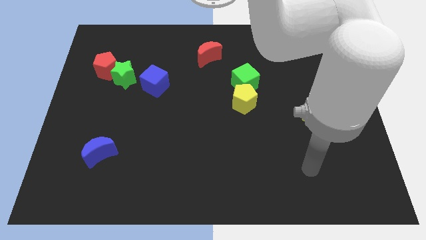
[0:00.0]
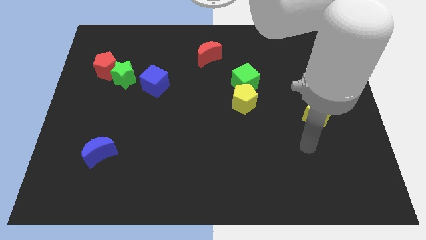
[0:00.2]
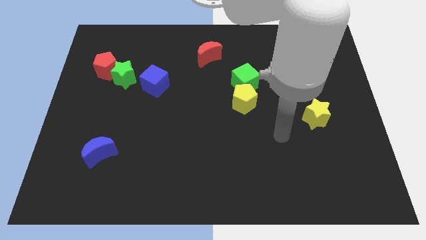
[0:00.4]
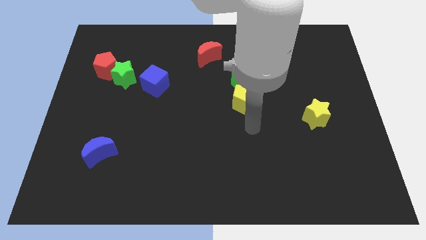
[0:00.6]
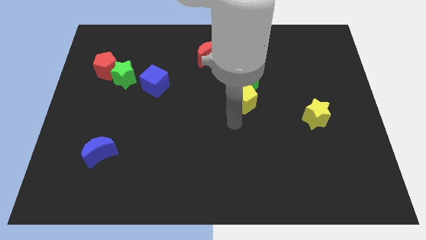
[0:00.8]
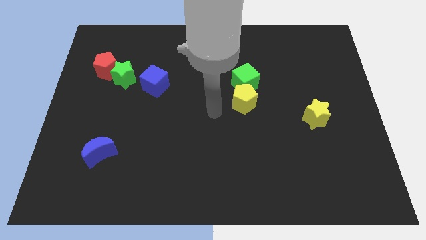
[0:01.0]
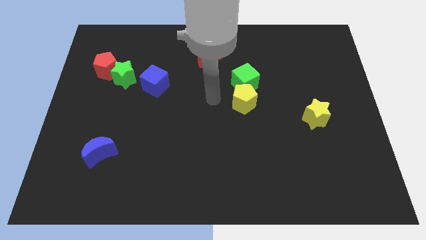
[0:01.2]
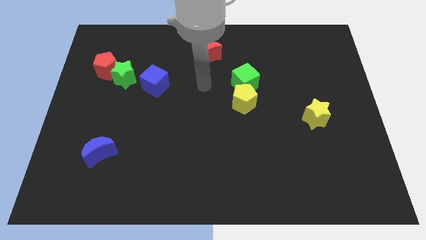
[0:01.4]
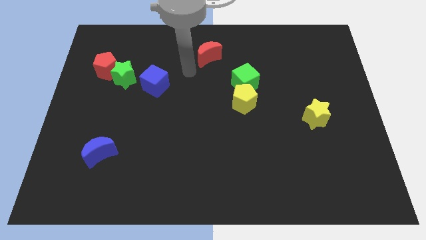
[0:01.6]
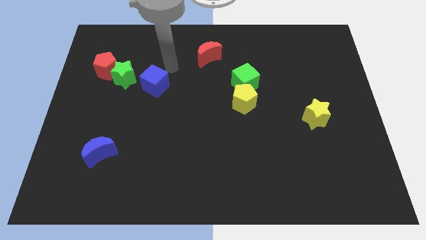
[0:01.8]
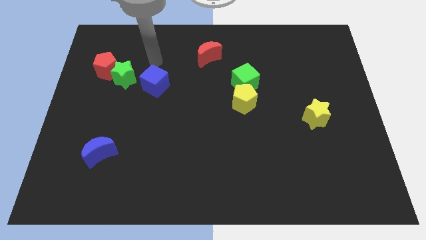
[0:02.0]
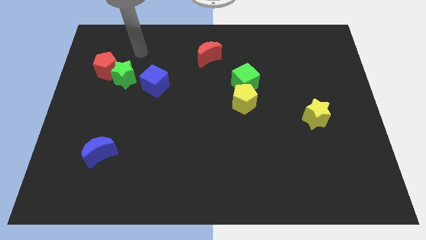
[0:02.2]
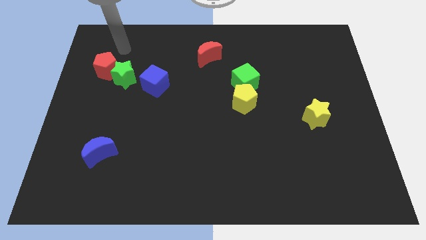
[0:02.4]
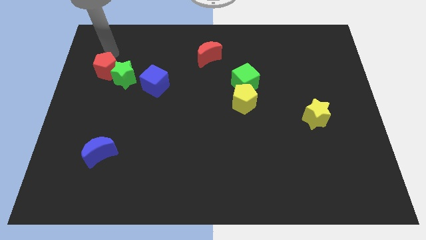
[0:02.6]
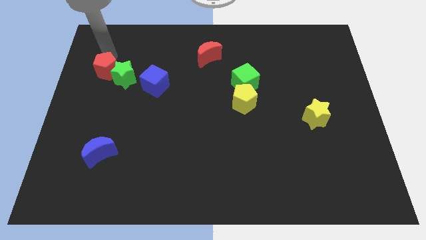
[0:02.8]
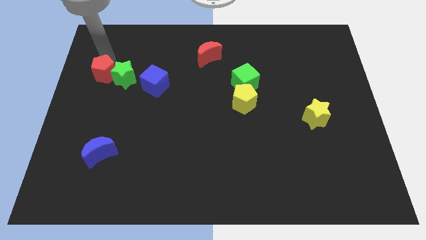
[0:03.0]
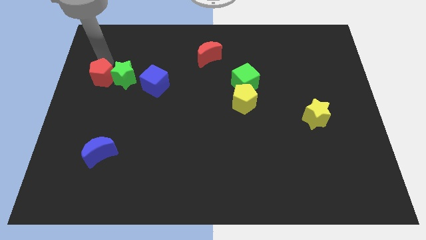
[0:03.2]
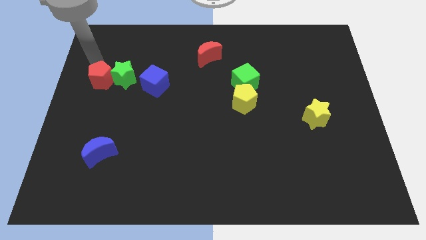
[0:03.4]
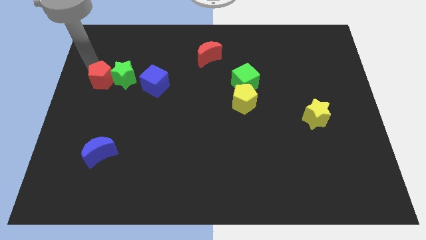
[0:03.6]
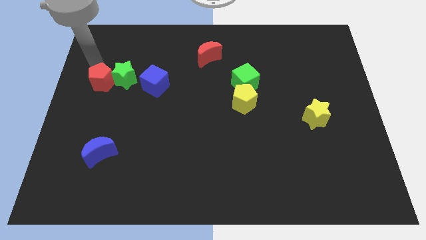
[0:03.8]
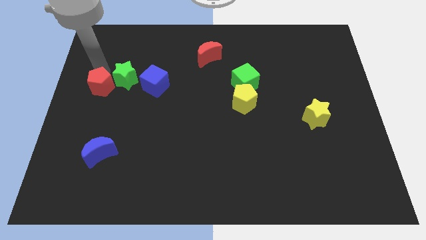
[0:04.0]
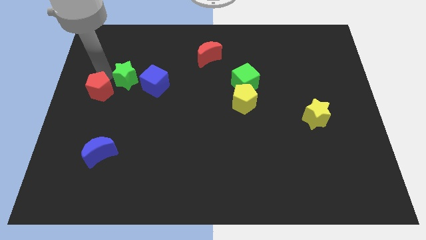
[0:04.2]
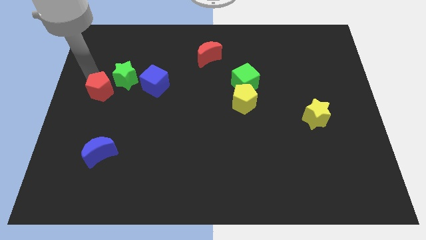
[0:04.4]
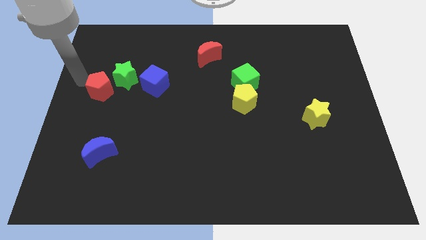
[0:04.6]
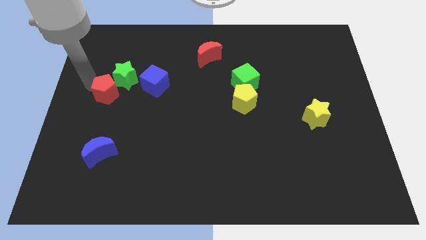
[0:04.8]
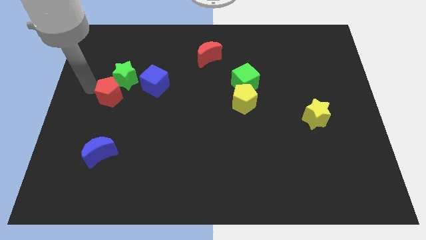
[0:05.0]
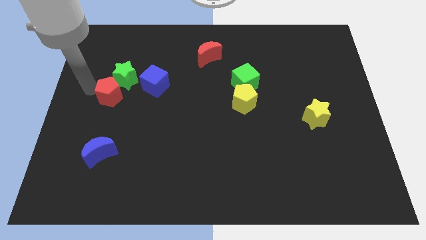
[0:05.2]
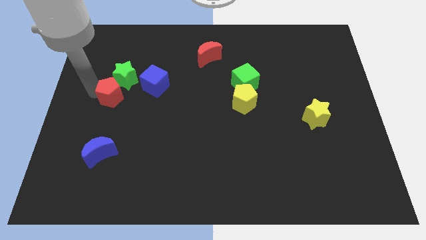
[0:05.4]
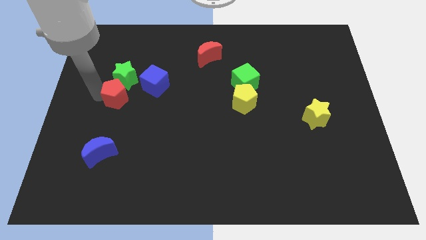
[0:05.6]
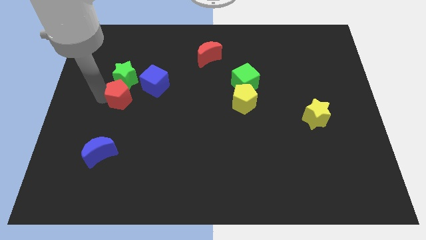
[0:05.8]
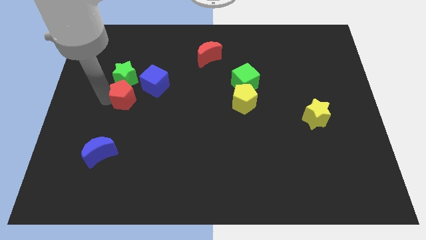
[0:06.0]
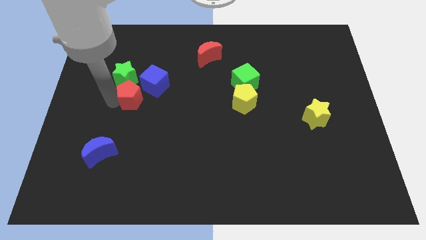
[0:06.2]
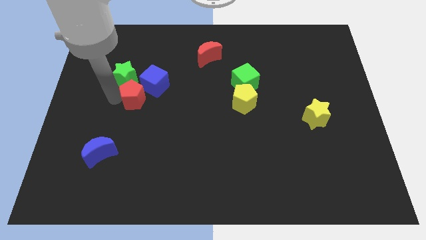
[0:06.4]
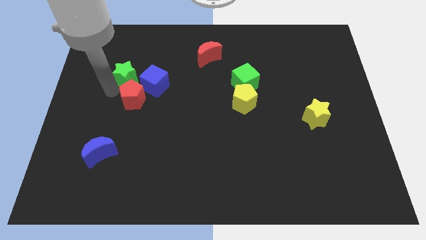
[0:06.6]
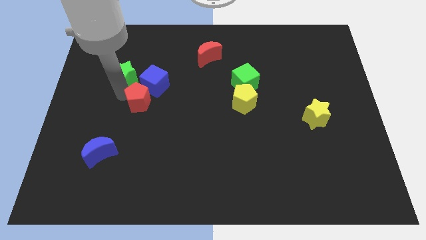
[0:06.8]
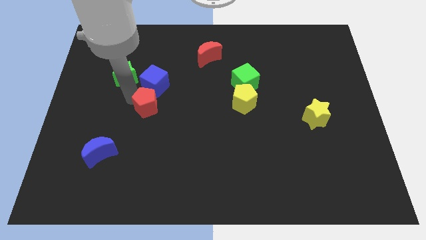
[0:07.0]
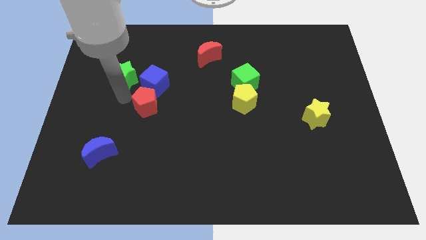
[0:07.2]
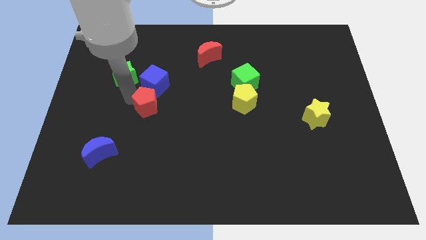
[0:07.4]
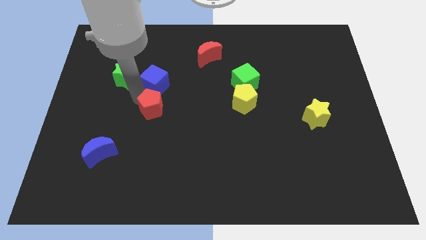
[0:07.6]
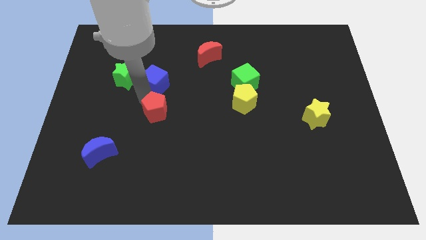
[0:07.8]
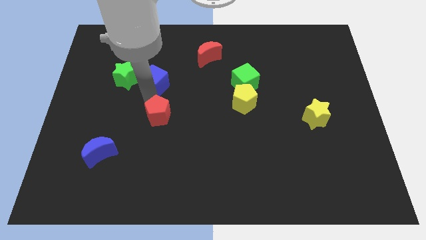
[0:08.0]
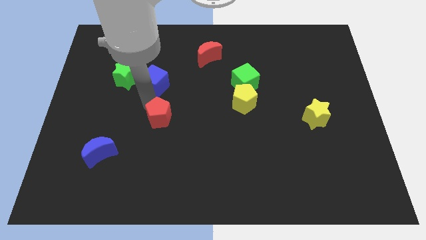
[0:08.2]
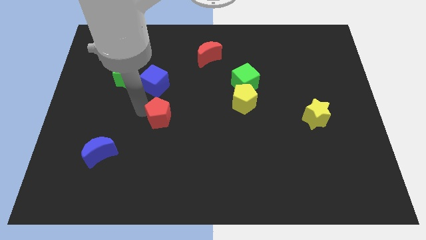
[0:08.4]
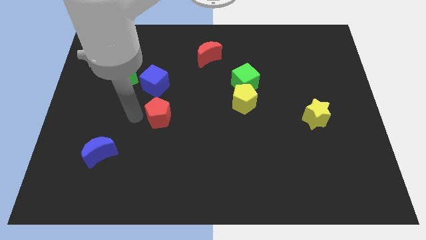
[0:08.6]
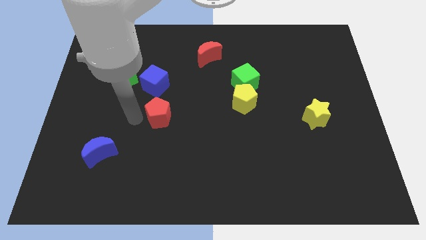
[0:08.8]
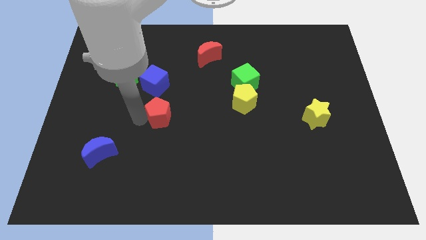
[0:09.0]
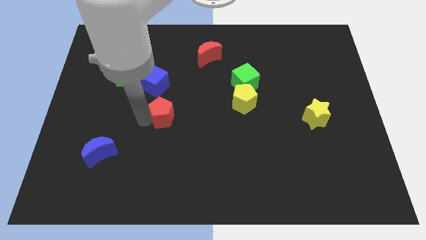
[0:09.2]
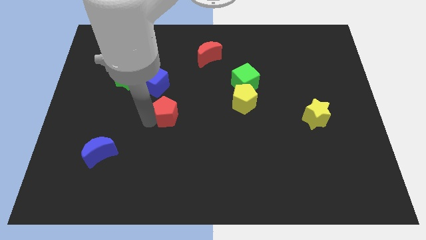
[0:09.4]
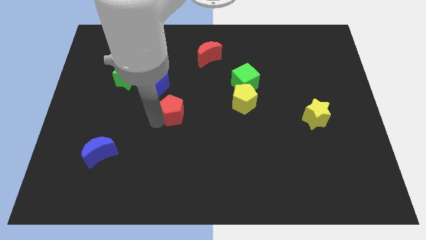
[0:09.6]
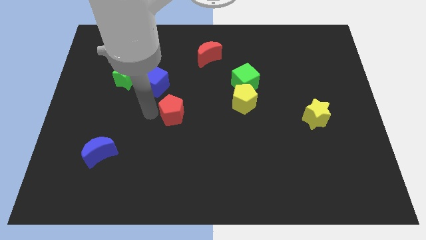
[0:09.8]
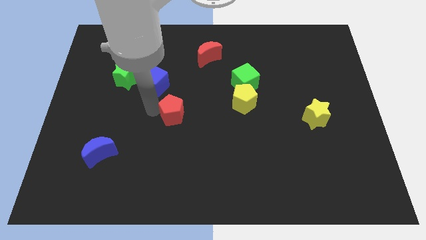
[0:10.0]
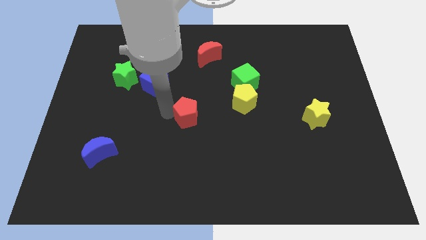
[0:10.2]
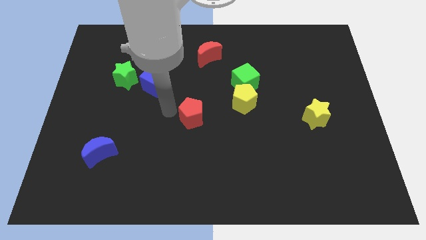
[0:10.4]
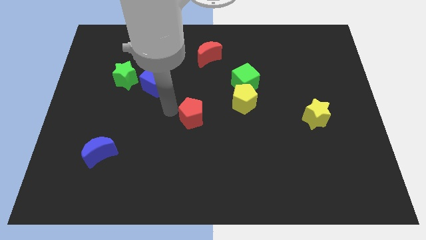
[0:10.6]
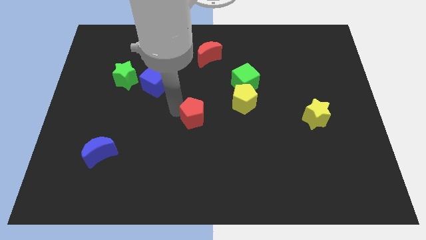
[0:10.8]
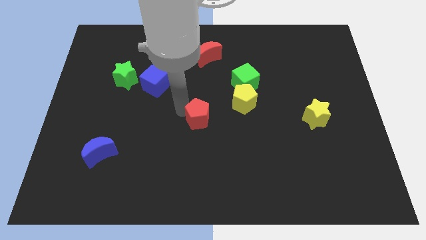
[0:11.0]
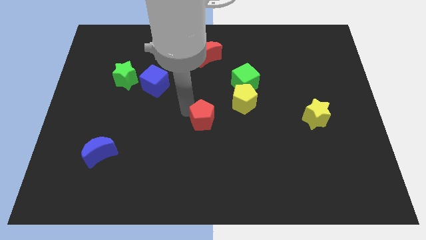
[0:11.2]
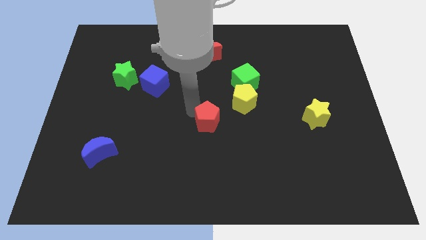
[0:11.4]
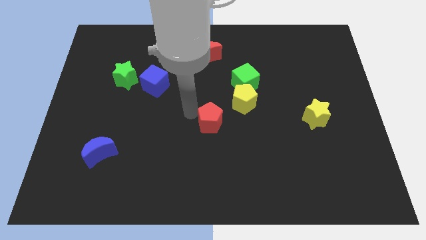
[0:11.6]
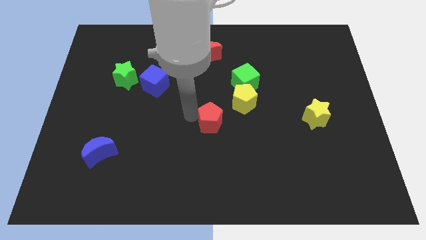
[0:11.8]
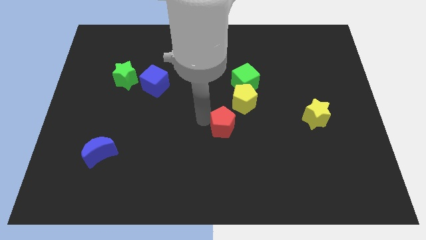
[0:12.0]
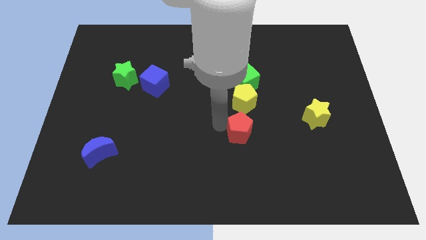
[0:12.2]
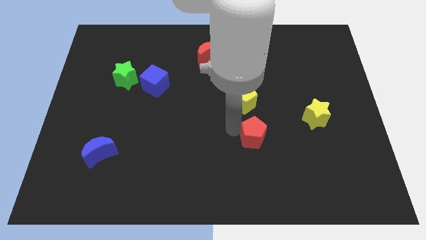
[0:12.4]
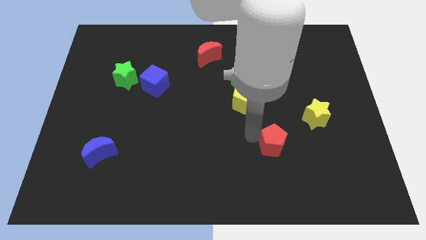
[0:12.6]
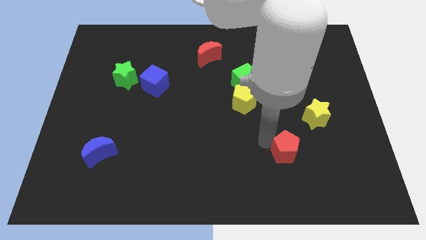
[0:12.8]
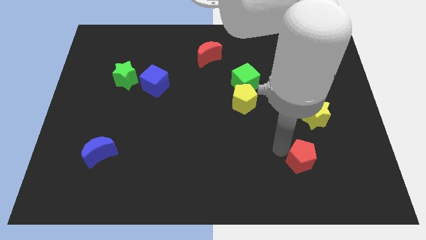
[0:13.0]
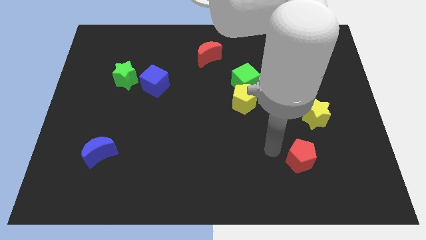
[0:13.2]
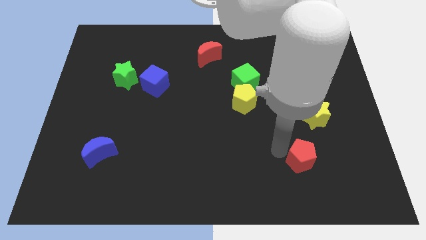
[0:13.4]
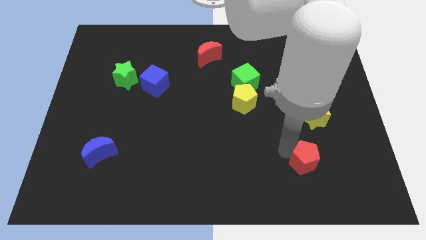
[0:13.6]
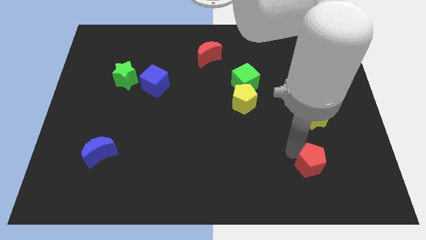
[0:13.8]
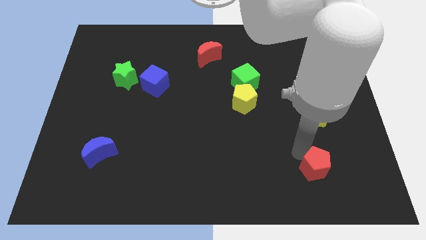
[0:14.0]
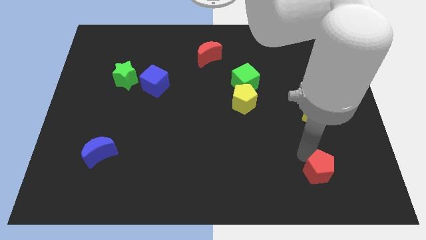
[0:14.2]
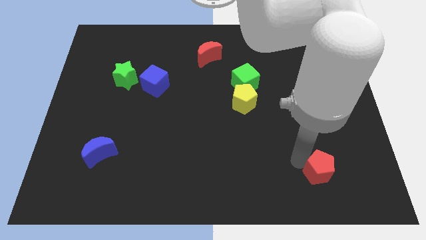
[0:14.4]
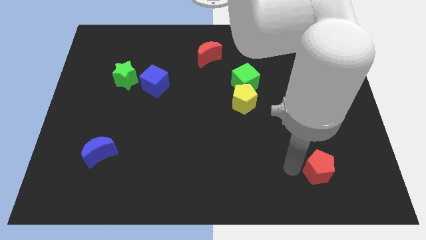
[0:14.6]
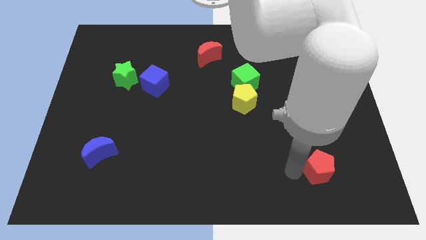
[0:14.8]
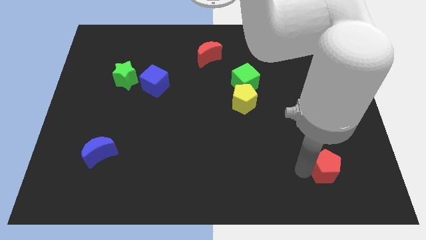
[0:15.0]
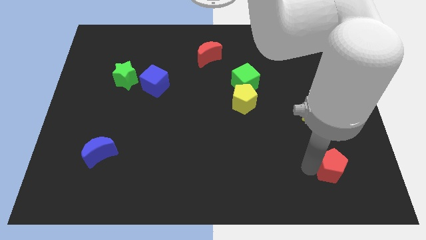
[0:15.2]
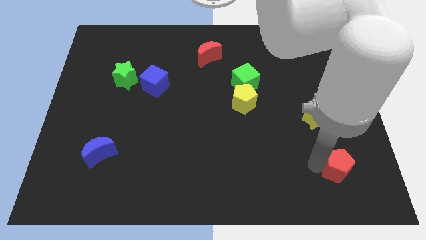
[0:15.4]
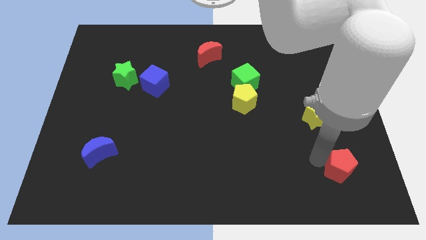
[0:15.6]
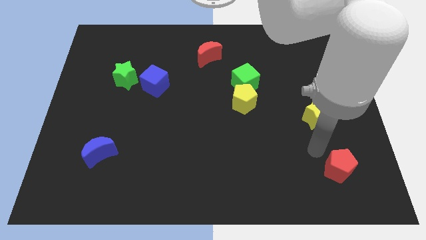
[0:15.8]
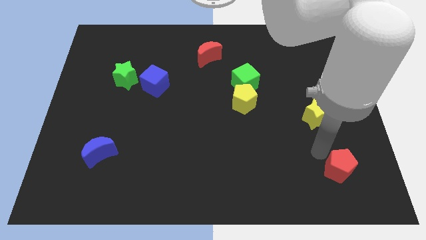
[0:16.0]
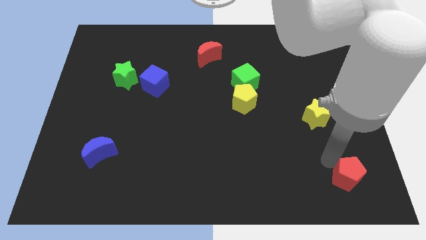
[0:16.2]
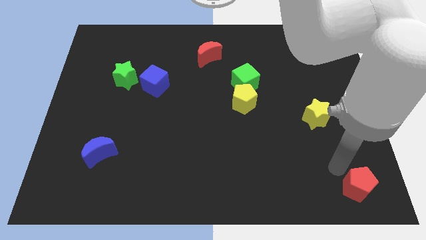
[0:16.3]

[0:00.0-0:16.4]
push the red pentagon to the bottom right corner
